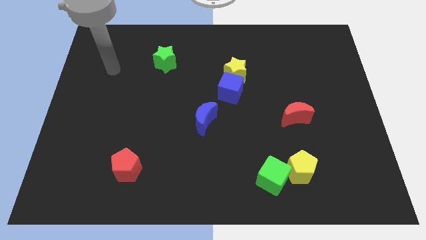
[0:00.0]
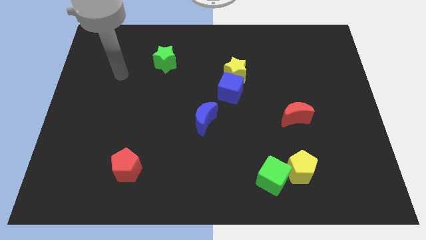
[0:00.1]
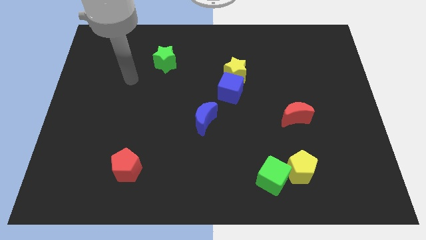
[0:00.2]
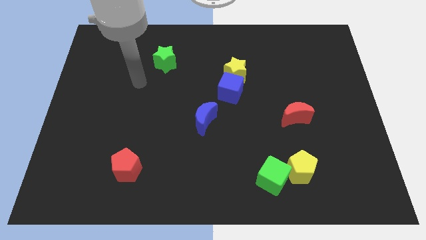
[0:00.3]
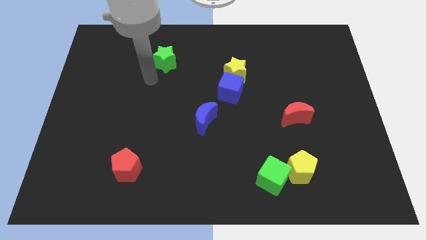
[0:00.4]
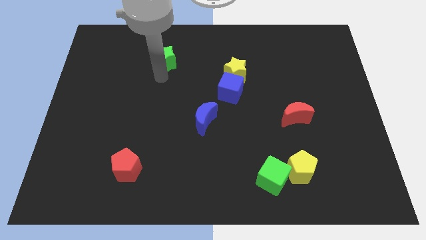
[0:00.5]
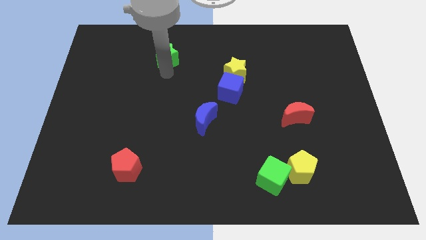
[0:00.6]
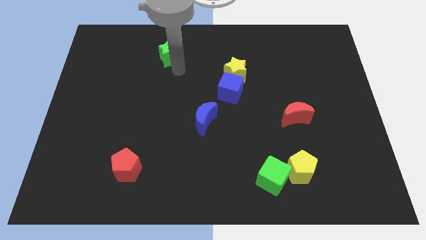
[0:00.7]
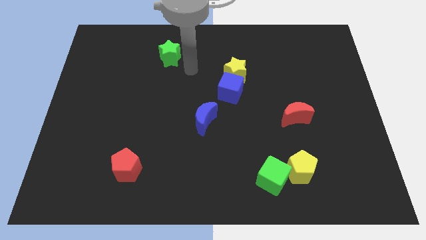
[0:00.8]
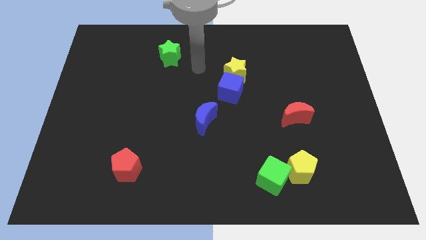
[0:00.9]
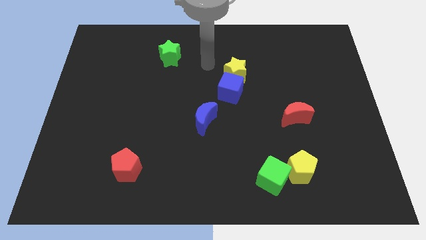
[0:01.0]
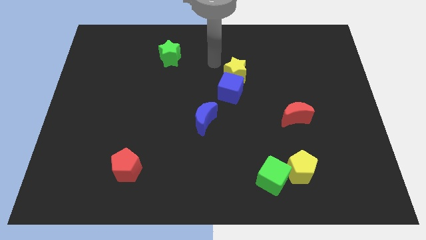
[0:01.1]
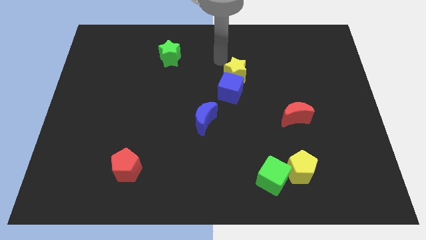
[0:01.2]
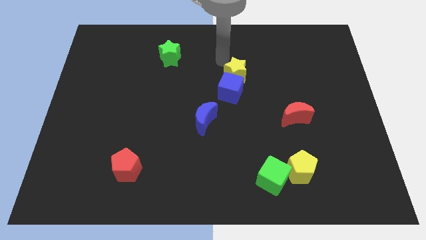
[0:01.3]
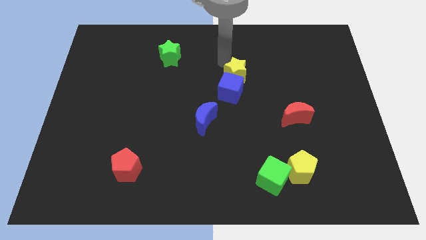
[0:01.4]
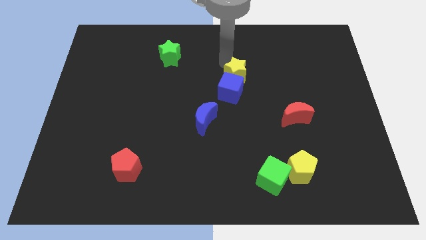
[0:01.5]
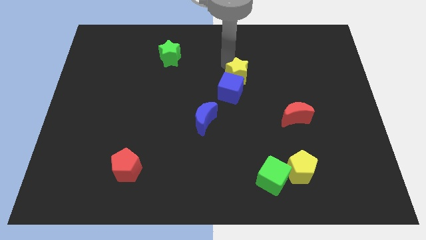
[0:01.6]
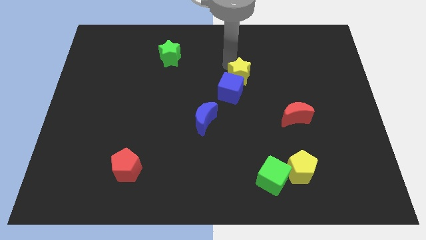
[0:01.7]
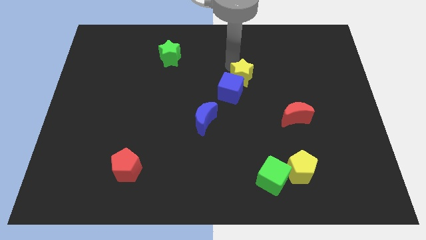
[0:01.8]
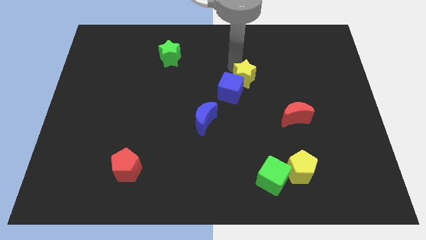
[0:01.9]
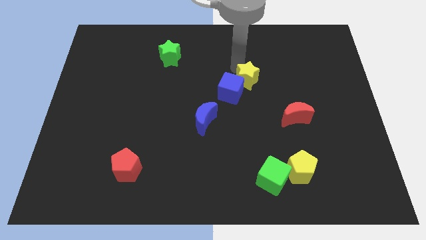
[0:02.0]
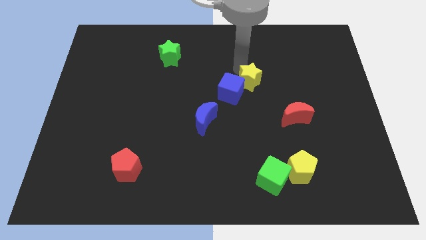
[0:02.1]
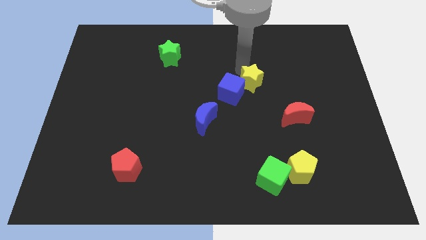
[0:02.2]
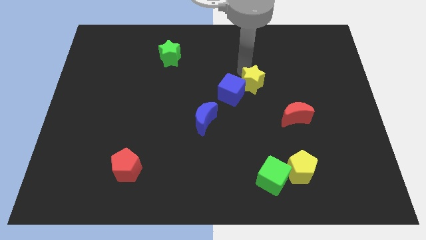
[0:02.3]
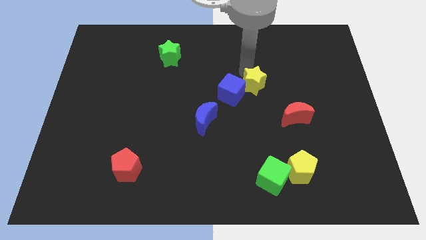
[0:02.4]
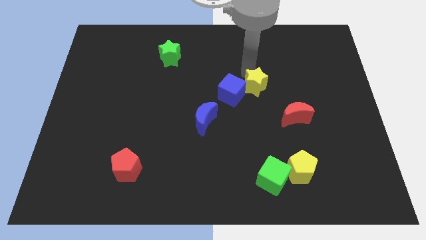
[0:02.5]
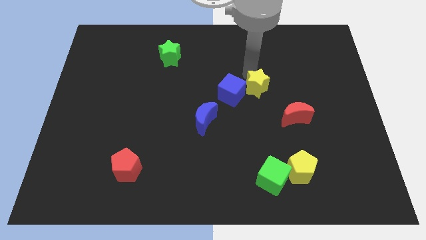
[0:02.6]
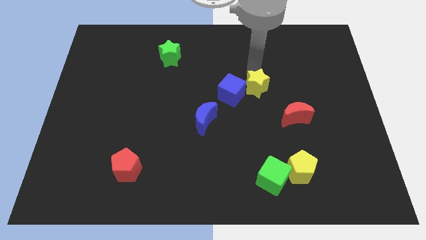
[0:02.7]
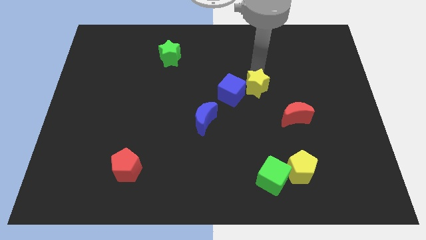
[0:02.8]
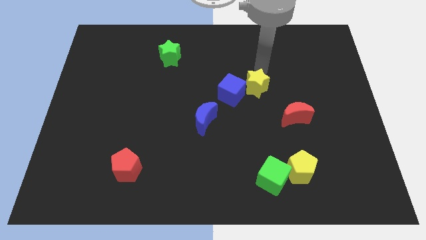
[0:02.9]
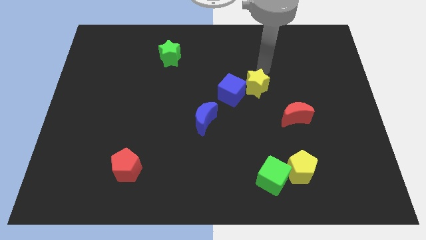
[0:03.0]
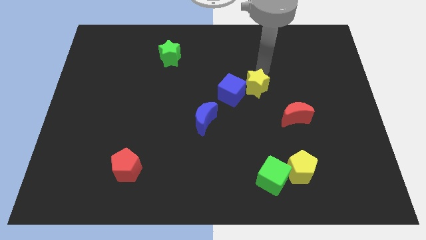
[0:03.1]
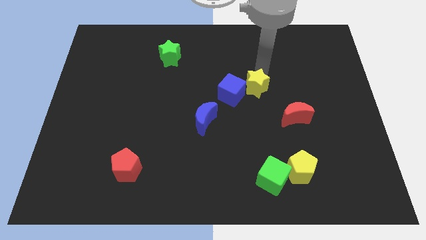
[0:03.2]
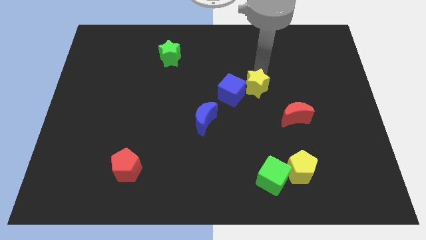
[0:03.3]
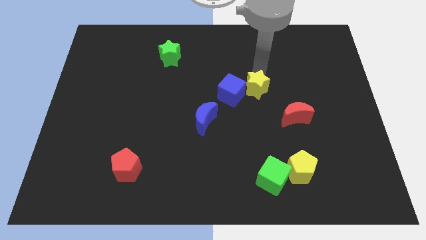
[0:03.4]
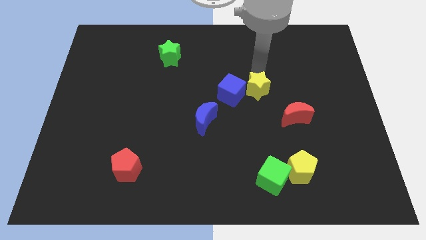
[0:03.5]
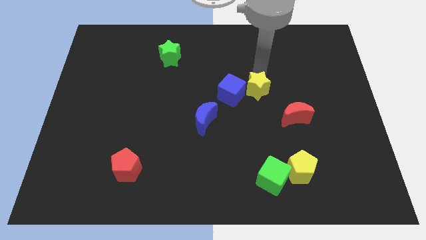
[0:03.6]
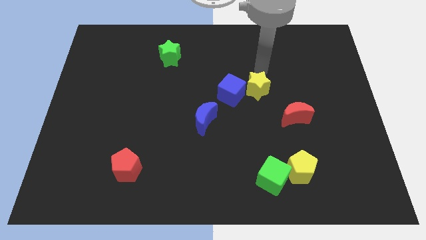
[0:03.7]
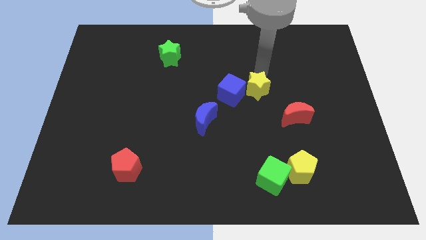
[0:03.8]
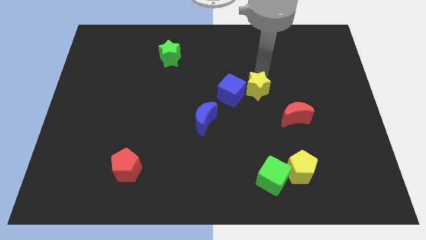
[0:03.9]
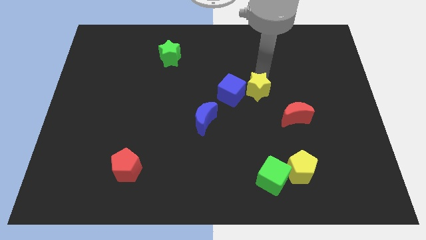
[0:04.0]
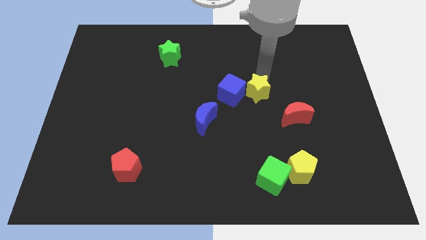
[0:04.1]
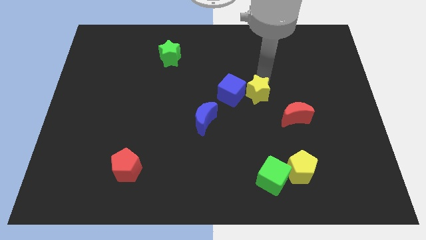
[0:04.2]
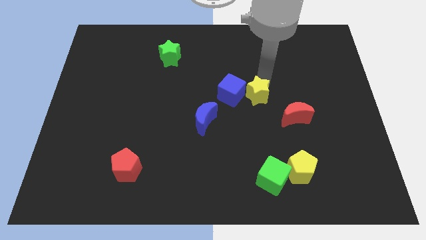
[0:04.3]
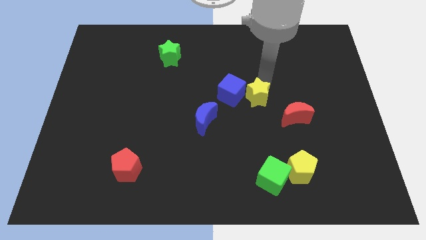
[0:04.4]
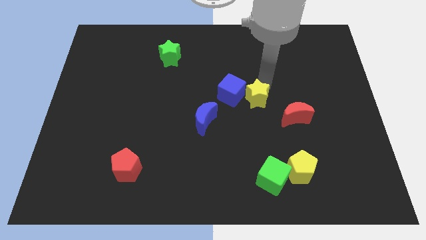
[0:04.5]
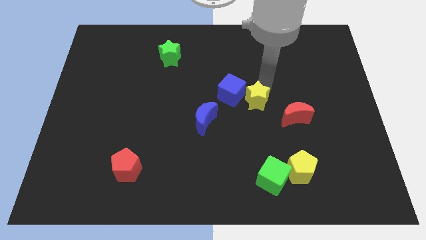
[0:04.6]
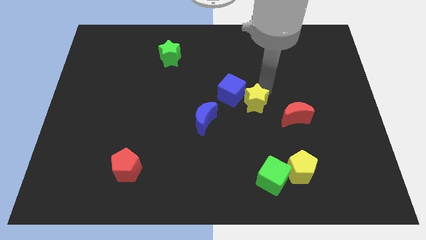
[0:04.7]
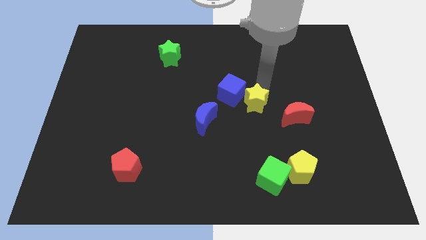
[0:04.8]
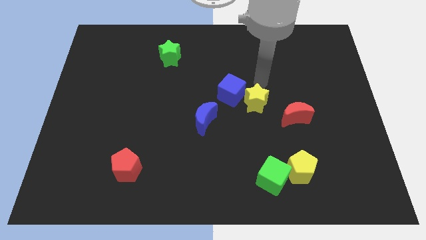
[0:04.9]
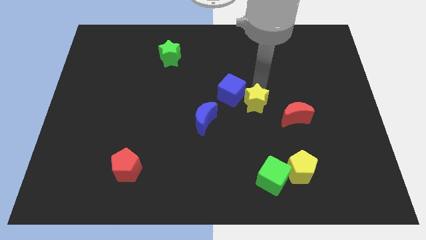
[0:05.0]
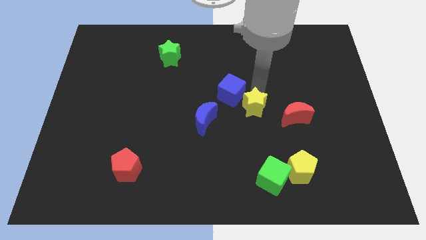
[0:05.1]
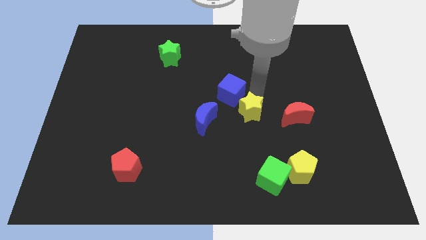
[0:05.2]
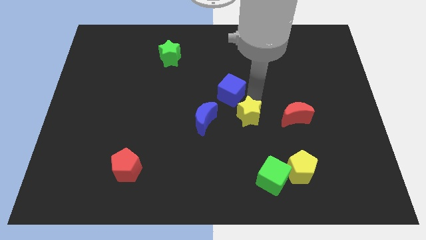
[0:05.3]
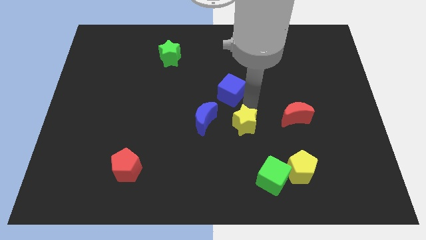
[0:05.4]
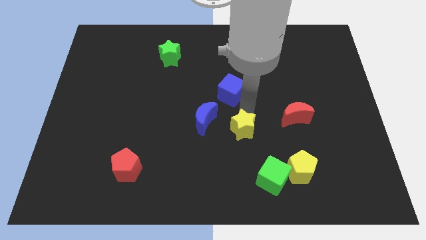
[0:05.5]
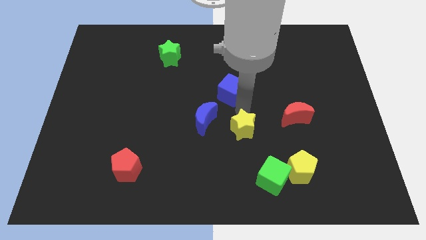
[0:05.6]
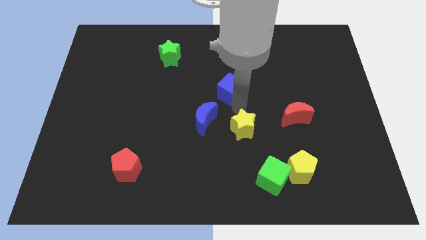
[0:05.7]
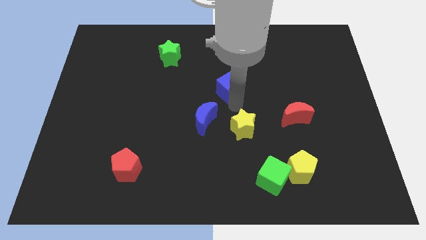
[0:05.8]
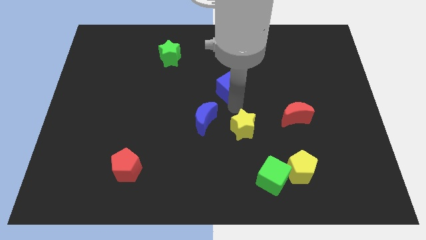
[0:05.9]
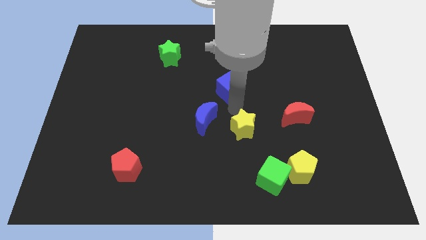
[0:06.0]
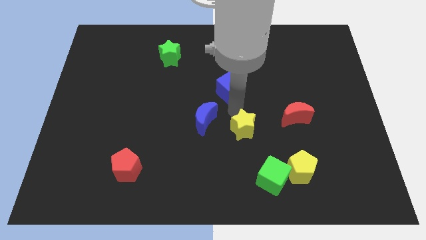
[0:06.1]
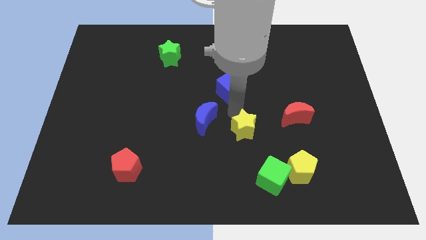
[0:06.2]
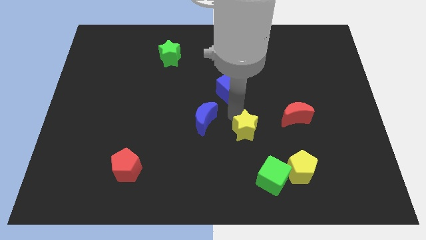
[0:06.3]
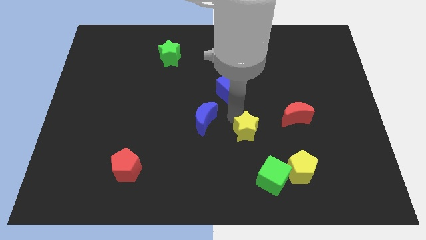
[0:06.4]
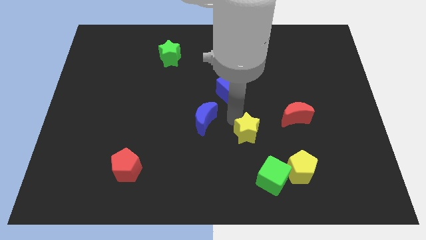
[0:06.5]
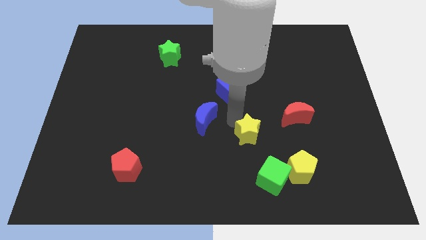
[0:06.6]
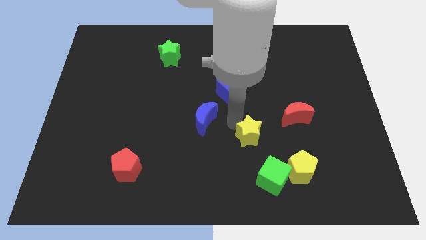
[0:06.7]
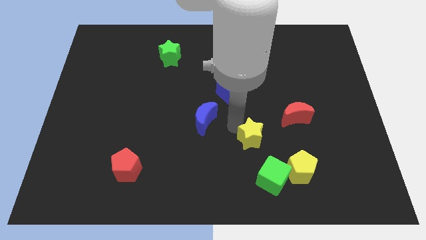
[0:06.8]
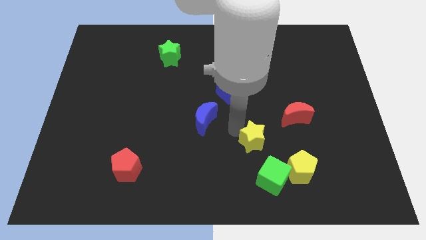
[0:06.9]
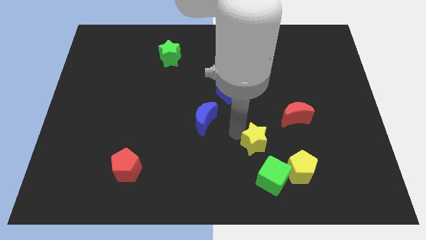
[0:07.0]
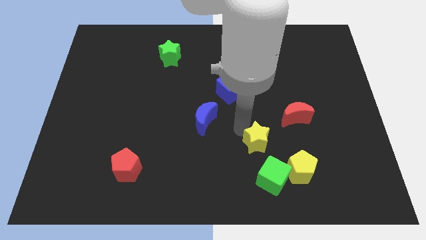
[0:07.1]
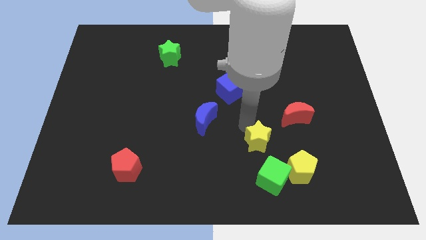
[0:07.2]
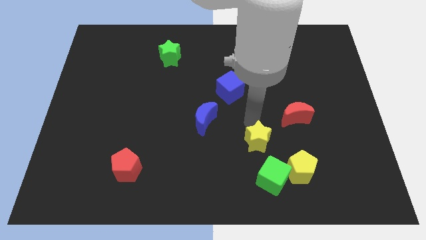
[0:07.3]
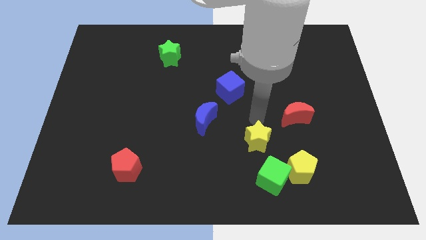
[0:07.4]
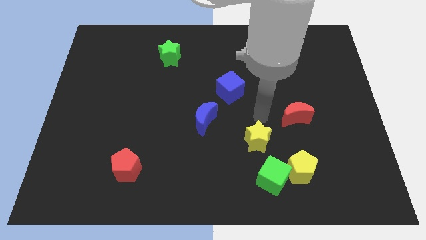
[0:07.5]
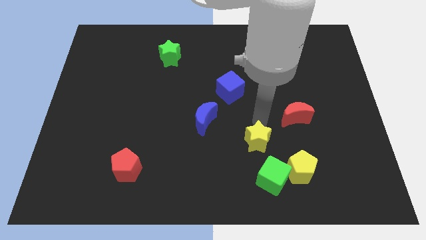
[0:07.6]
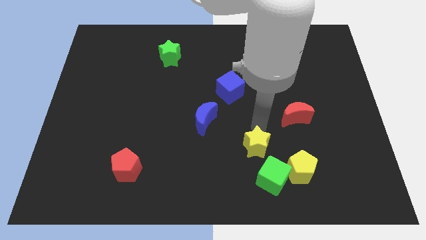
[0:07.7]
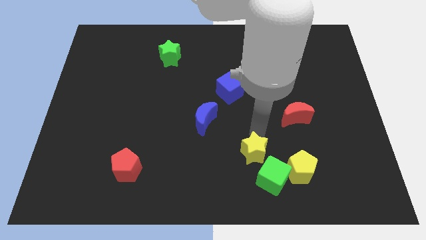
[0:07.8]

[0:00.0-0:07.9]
slide the yellow star just left of the yellow pentagon
